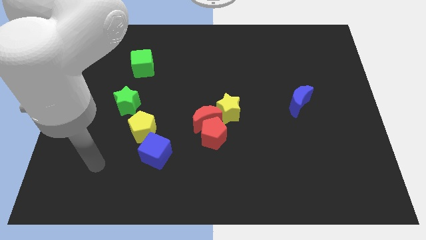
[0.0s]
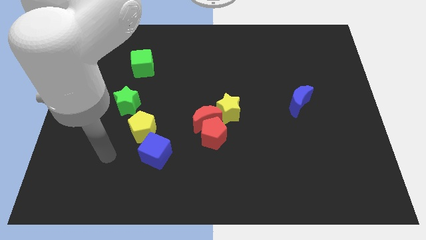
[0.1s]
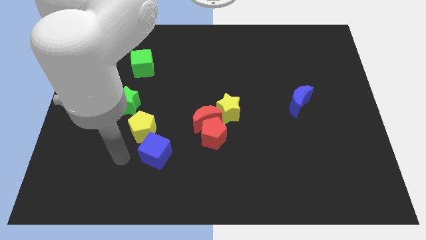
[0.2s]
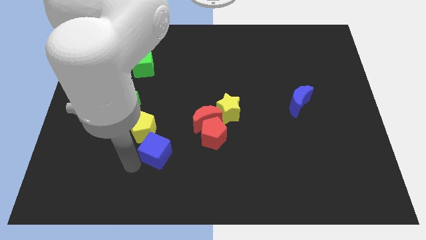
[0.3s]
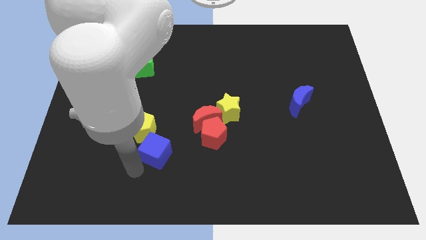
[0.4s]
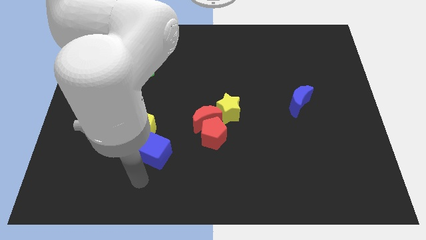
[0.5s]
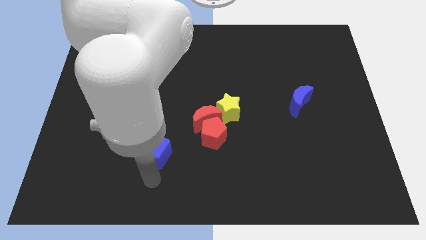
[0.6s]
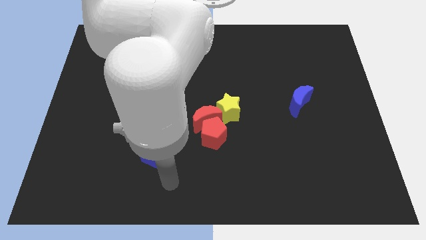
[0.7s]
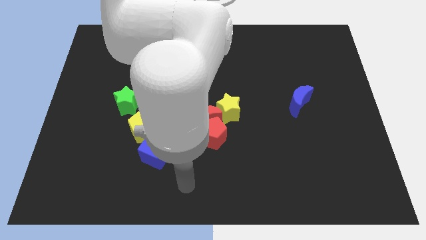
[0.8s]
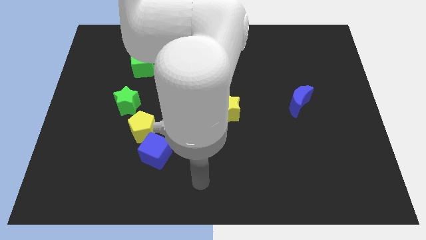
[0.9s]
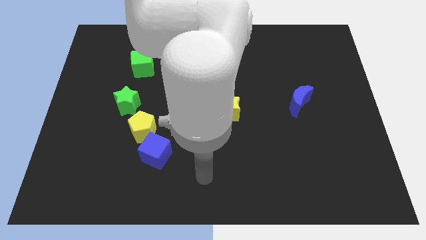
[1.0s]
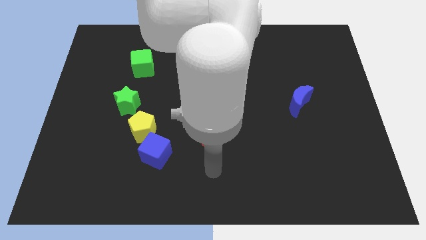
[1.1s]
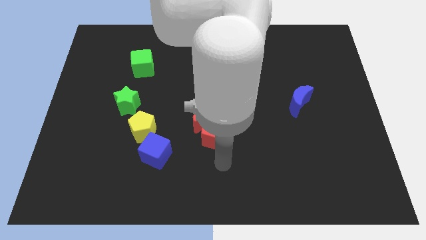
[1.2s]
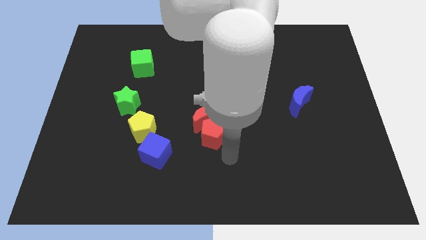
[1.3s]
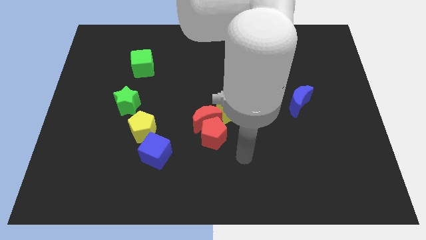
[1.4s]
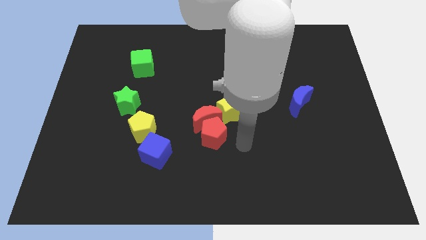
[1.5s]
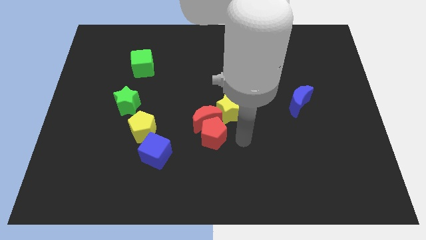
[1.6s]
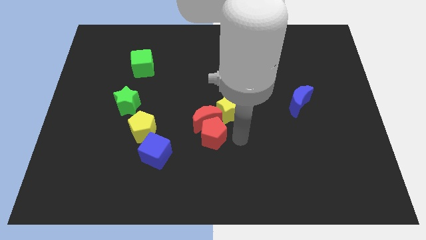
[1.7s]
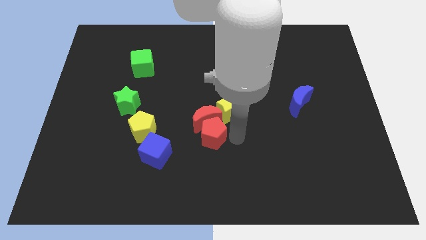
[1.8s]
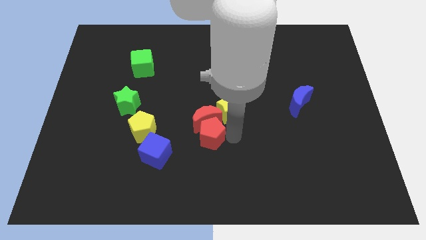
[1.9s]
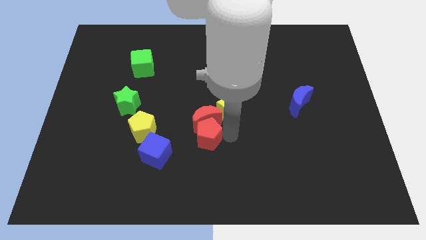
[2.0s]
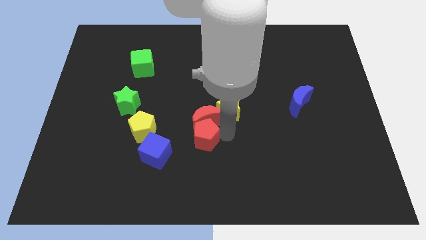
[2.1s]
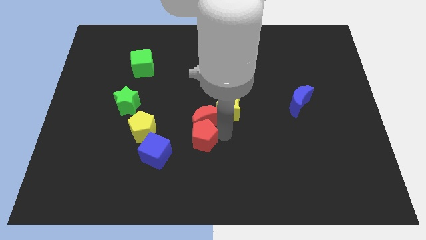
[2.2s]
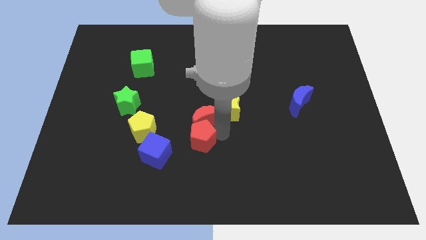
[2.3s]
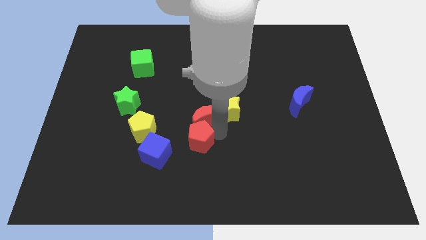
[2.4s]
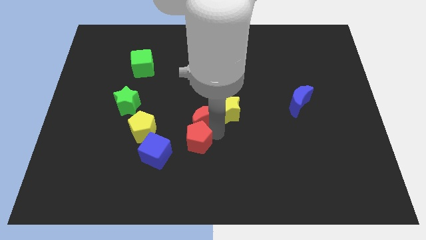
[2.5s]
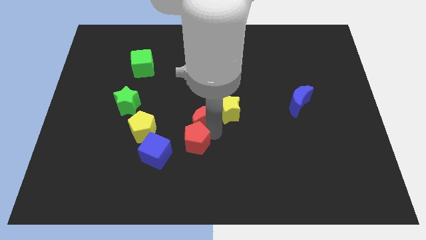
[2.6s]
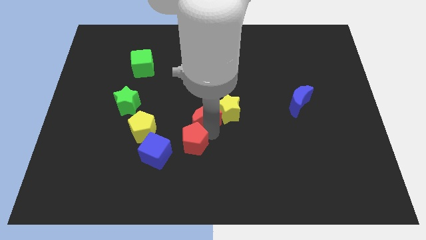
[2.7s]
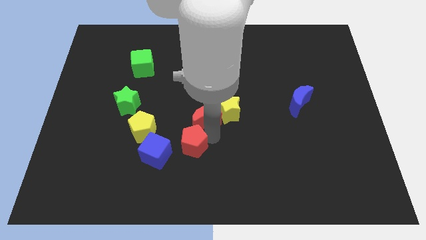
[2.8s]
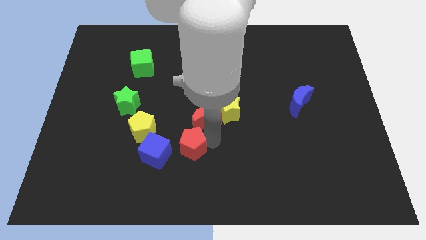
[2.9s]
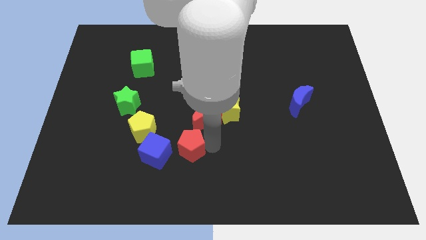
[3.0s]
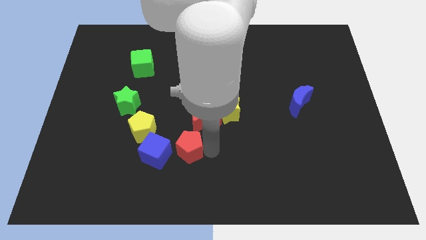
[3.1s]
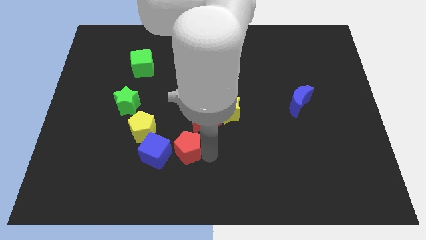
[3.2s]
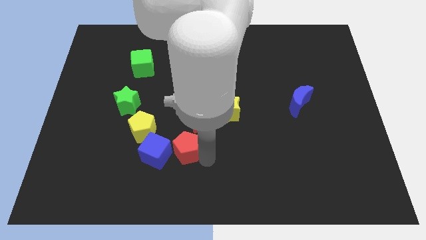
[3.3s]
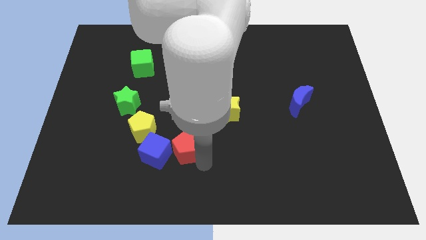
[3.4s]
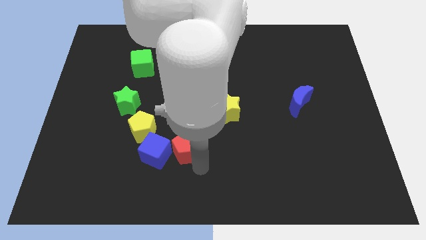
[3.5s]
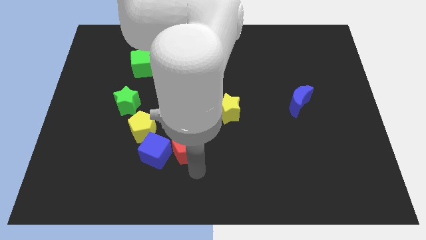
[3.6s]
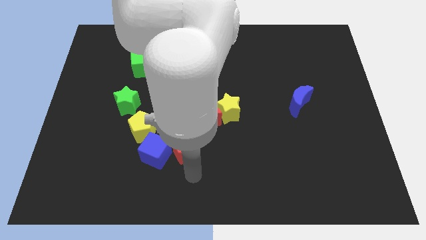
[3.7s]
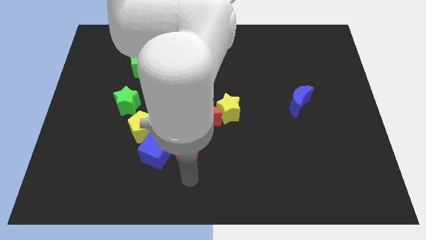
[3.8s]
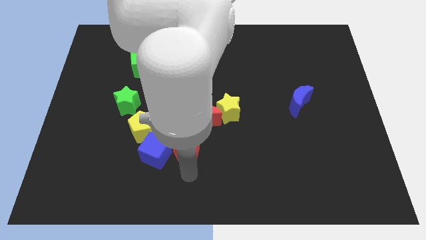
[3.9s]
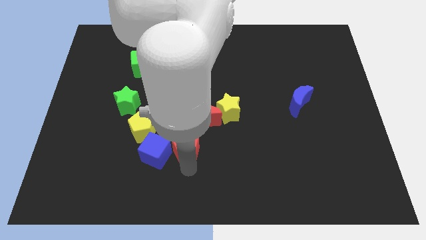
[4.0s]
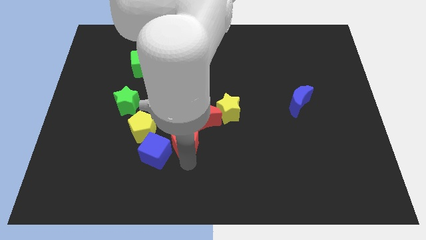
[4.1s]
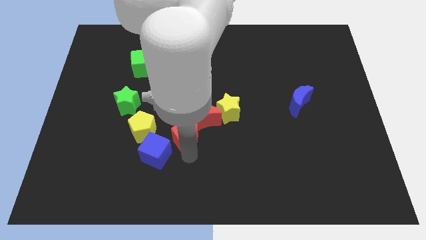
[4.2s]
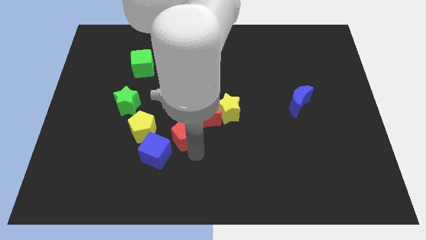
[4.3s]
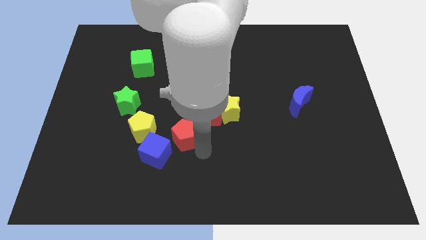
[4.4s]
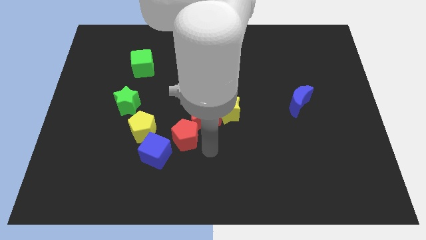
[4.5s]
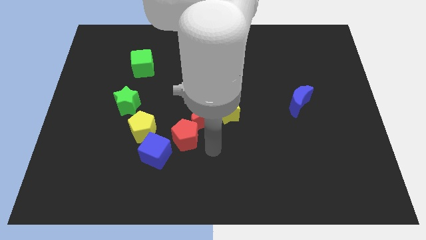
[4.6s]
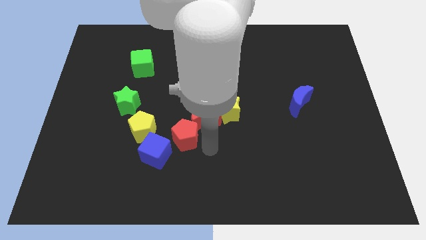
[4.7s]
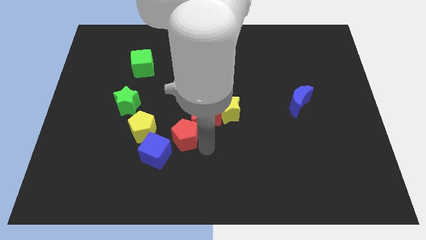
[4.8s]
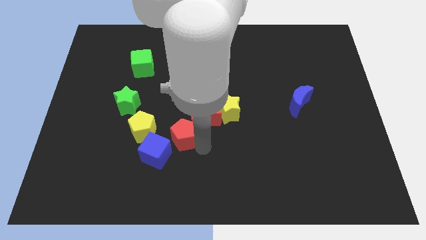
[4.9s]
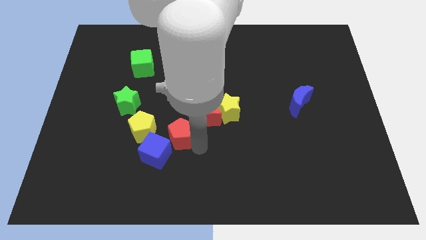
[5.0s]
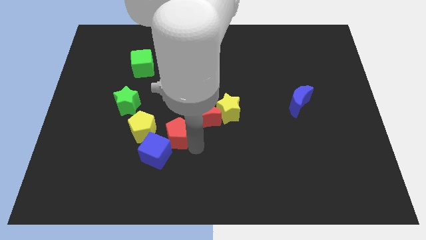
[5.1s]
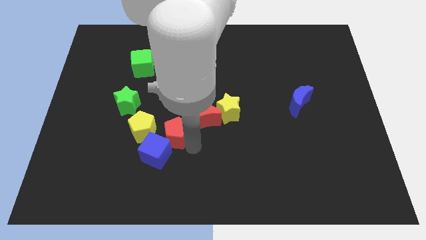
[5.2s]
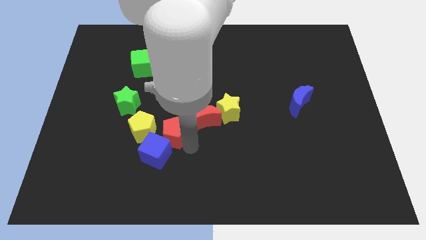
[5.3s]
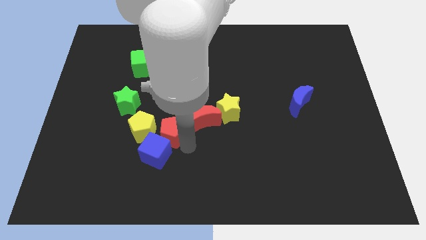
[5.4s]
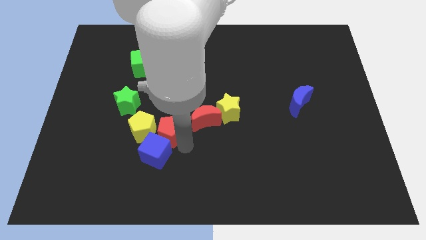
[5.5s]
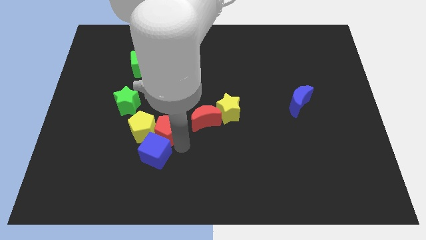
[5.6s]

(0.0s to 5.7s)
move the red pentagon towards the yellow pentagon

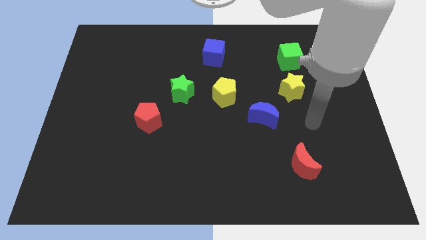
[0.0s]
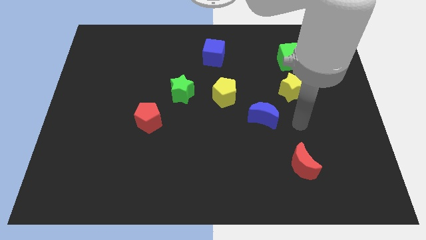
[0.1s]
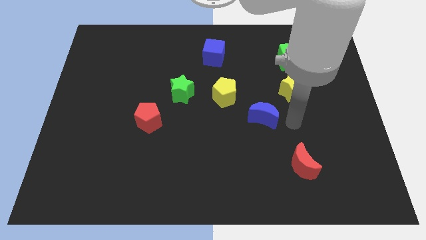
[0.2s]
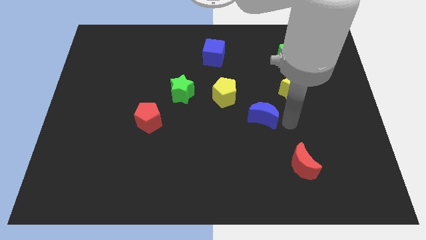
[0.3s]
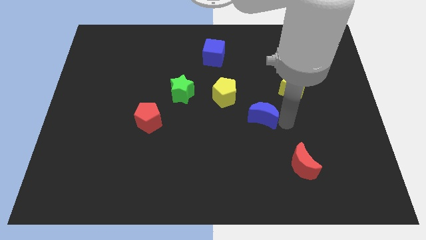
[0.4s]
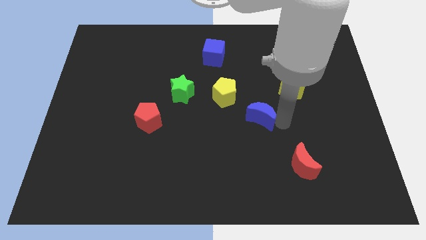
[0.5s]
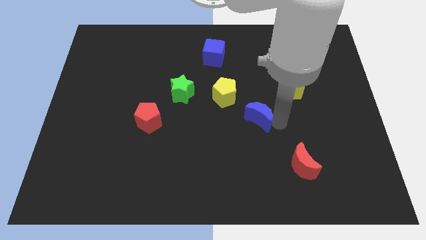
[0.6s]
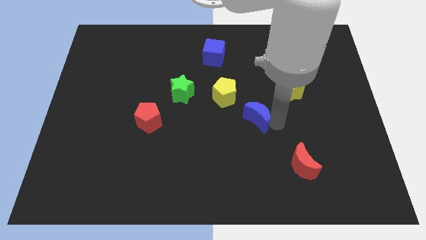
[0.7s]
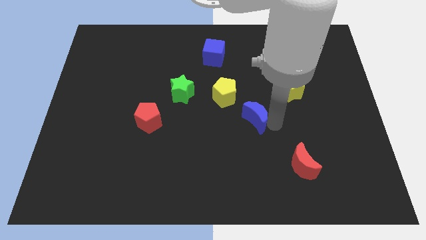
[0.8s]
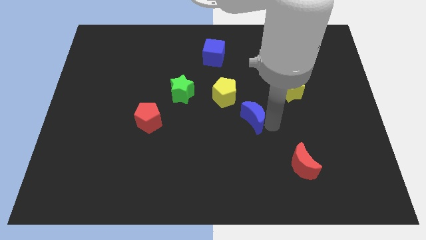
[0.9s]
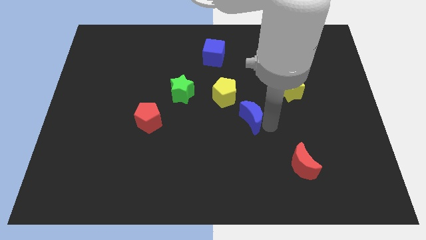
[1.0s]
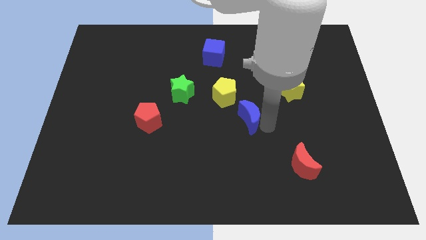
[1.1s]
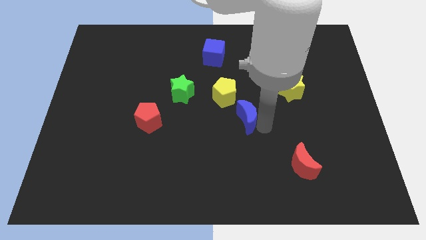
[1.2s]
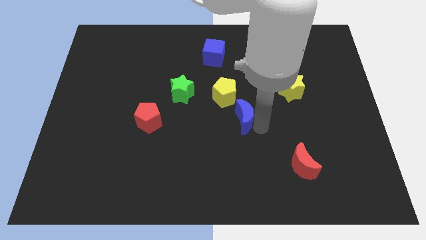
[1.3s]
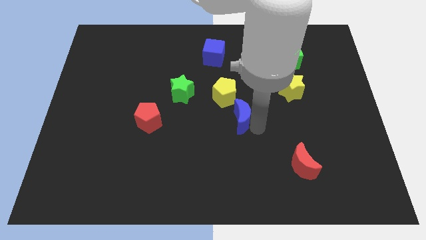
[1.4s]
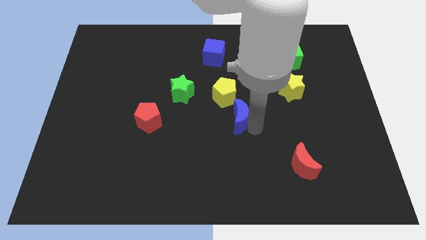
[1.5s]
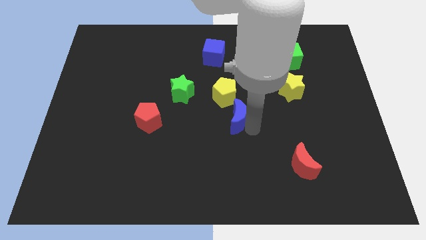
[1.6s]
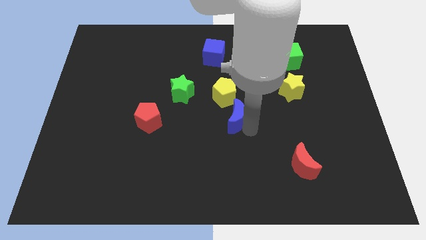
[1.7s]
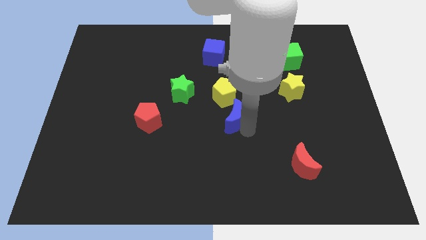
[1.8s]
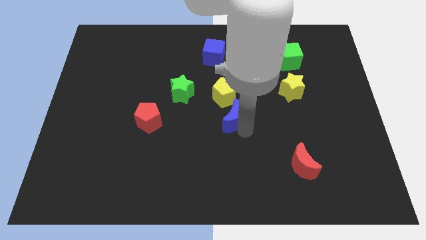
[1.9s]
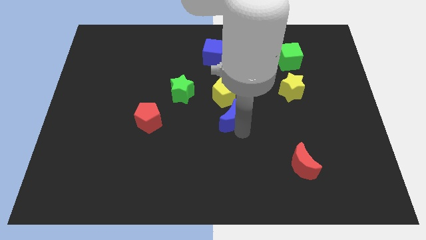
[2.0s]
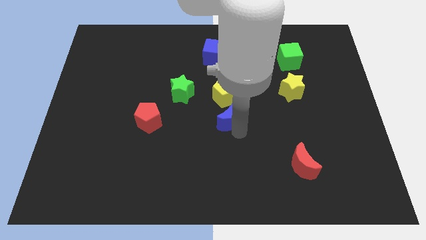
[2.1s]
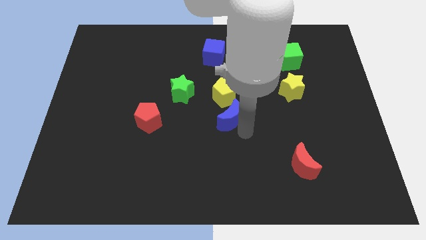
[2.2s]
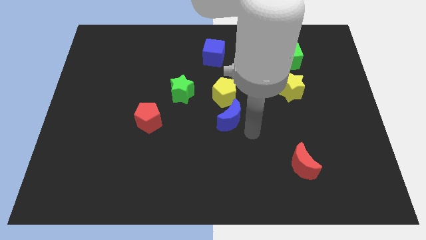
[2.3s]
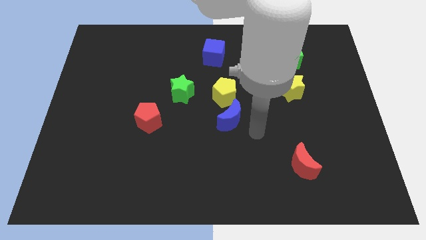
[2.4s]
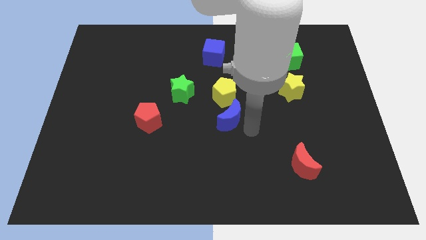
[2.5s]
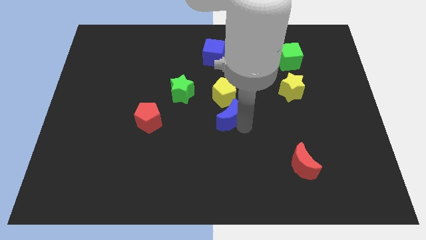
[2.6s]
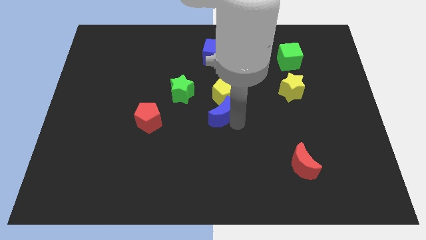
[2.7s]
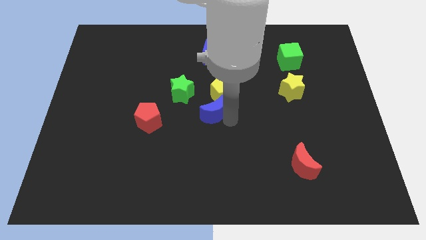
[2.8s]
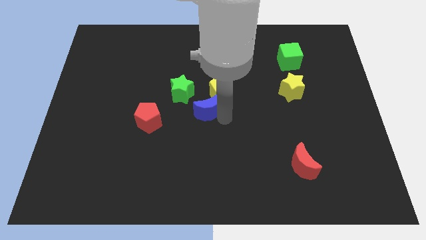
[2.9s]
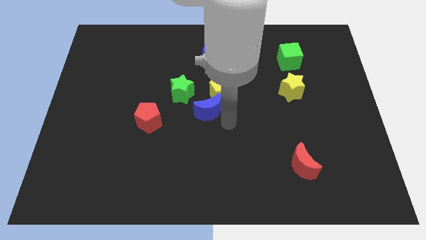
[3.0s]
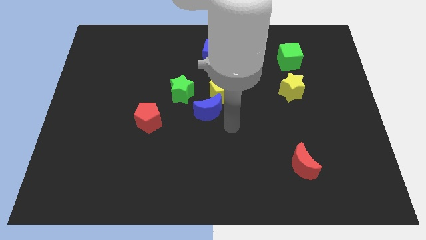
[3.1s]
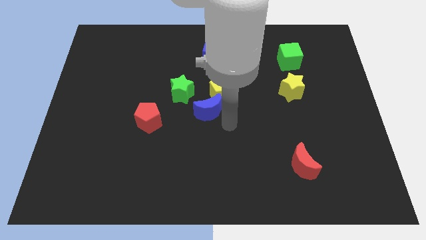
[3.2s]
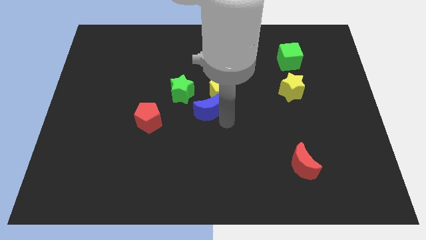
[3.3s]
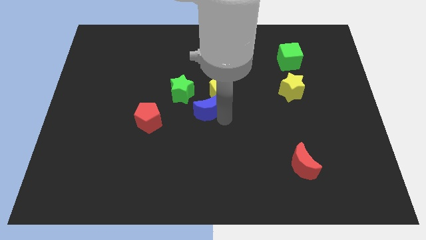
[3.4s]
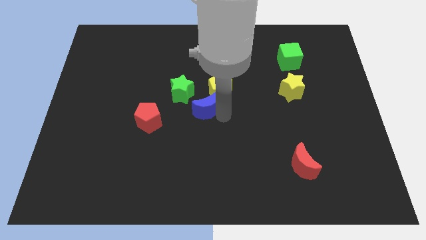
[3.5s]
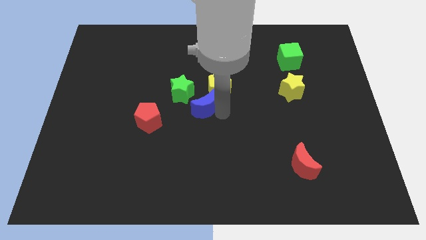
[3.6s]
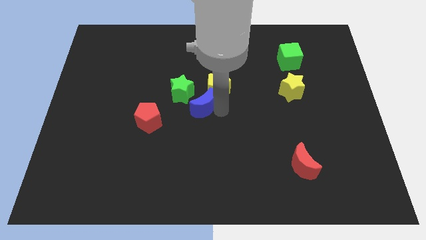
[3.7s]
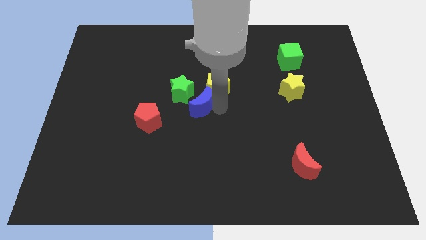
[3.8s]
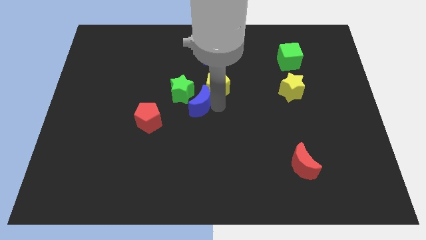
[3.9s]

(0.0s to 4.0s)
move the blue moon to the green star
